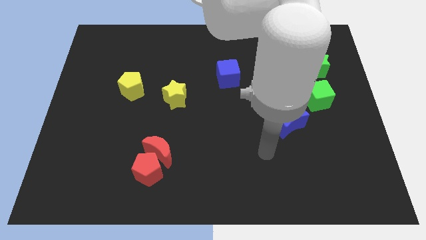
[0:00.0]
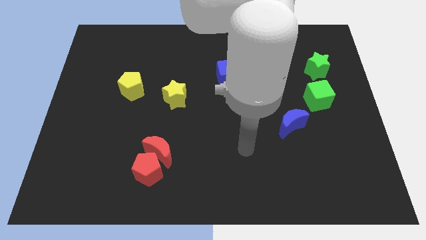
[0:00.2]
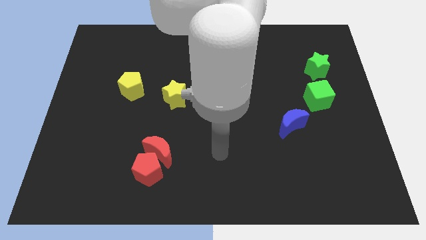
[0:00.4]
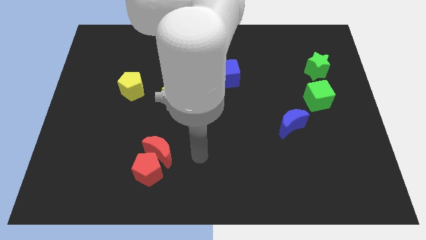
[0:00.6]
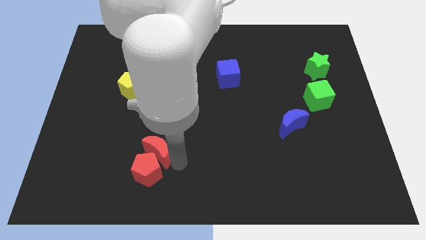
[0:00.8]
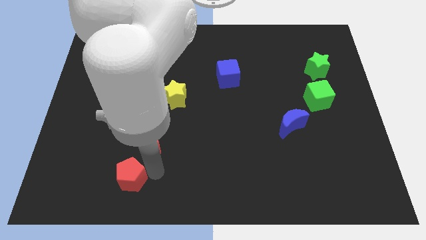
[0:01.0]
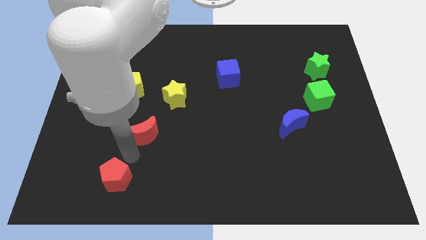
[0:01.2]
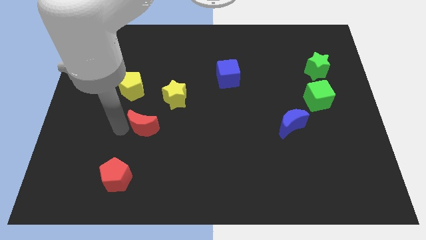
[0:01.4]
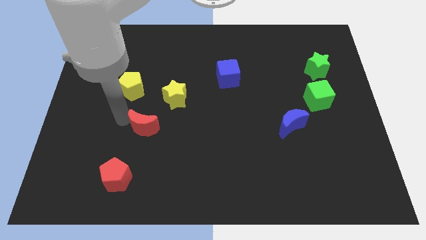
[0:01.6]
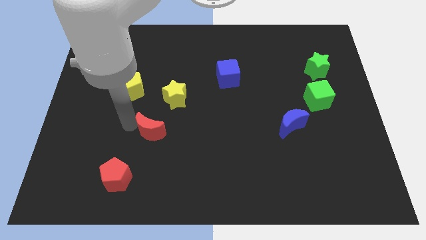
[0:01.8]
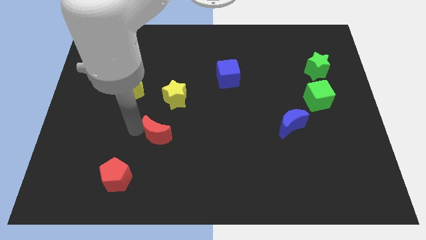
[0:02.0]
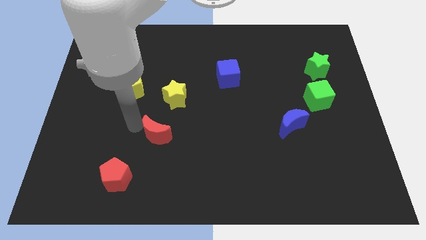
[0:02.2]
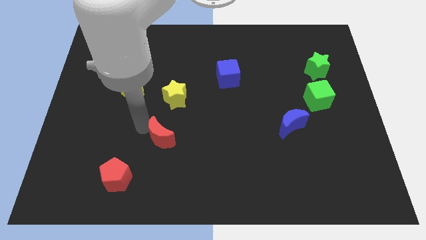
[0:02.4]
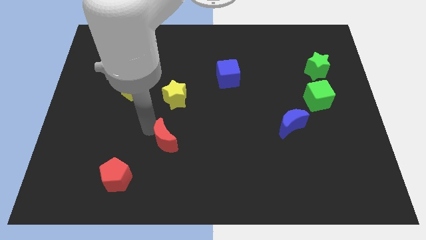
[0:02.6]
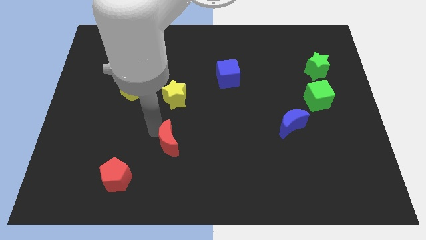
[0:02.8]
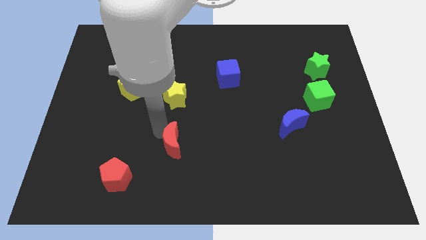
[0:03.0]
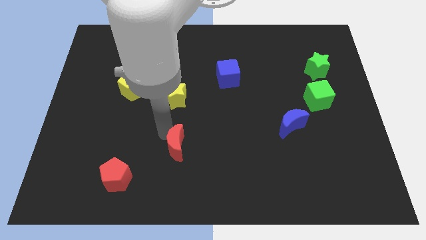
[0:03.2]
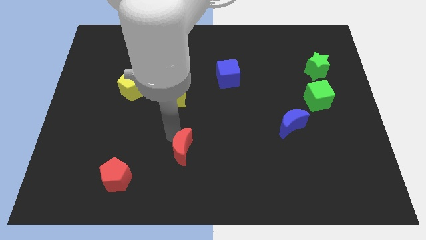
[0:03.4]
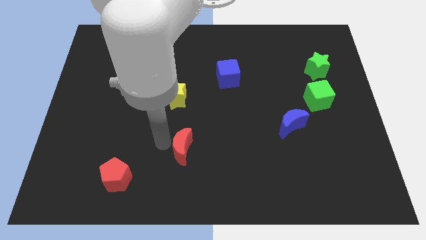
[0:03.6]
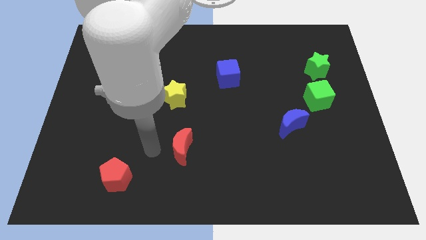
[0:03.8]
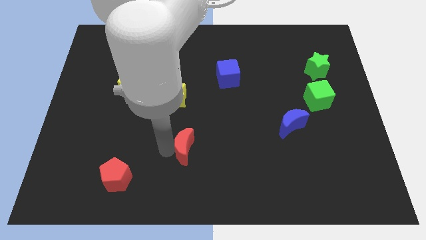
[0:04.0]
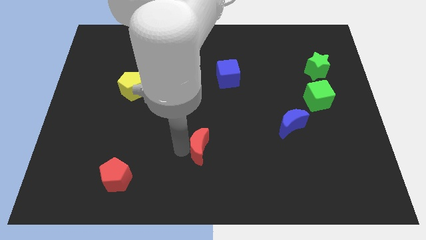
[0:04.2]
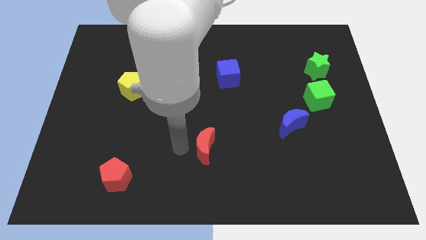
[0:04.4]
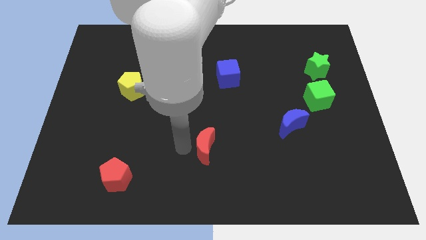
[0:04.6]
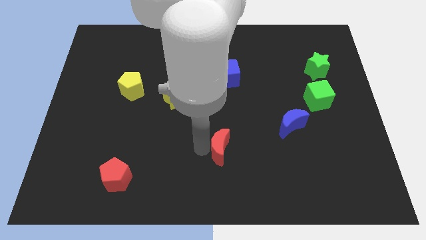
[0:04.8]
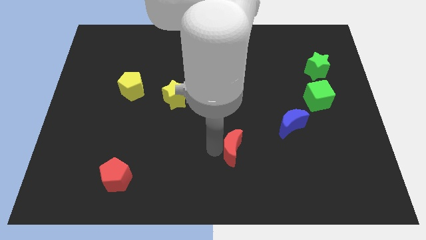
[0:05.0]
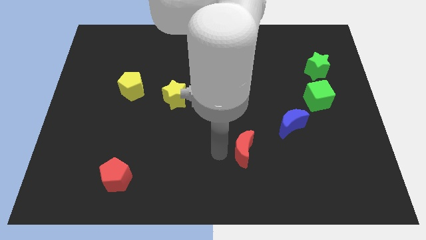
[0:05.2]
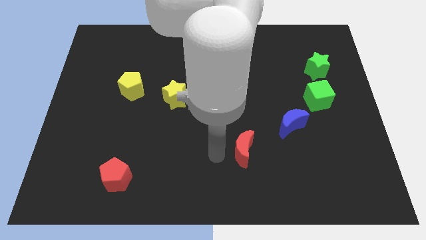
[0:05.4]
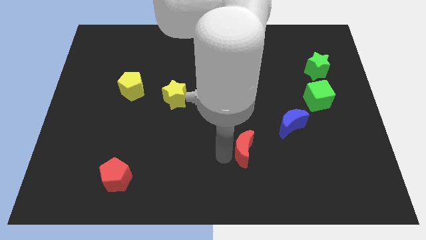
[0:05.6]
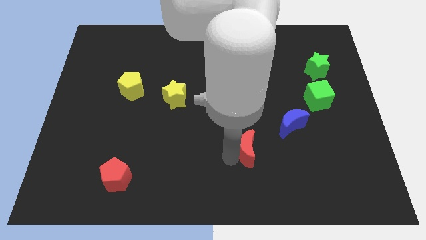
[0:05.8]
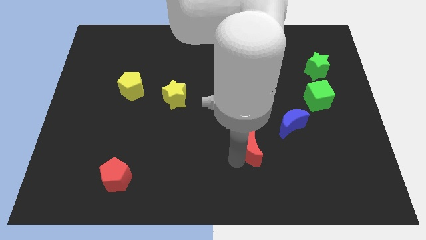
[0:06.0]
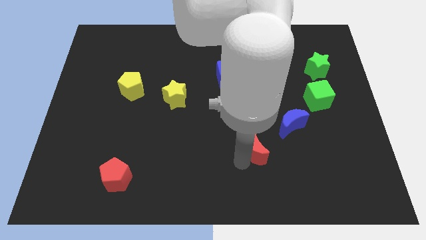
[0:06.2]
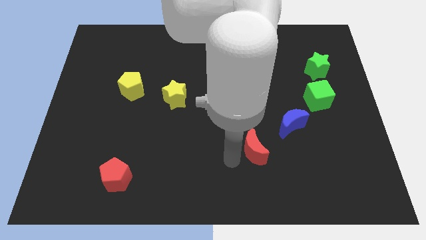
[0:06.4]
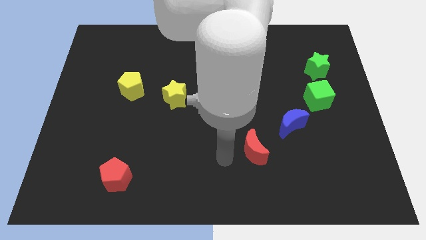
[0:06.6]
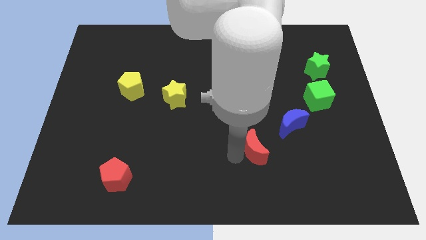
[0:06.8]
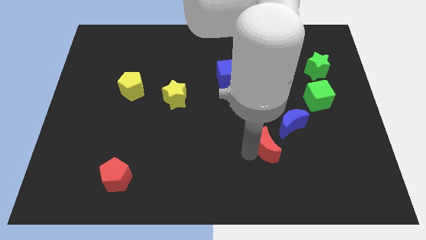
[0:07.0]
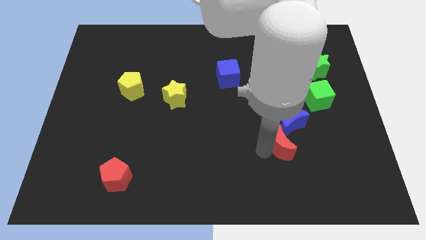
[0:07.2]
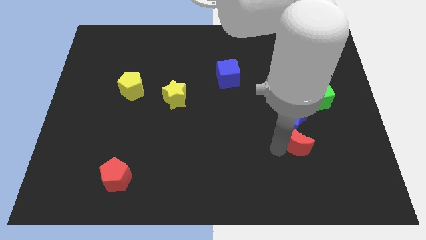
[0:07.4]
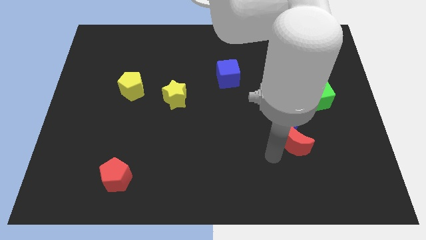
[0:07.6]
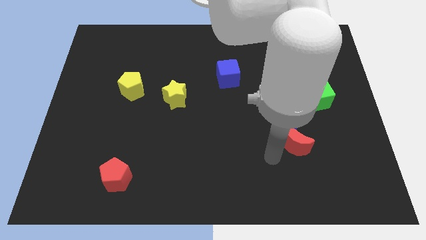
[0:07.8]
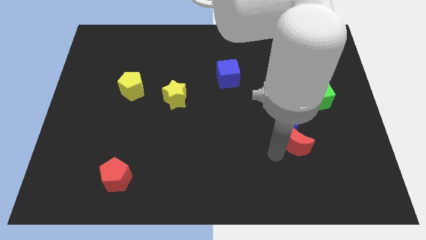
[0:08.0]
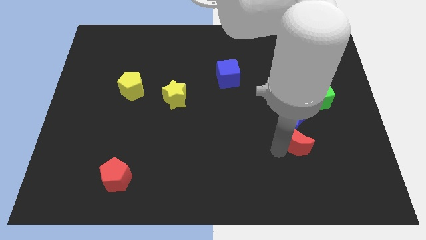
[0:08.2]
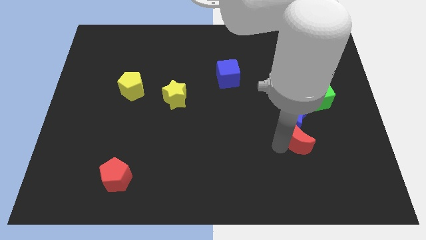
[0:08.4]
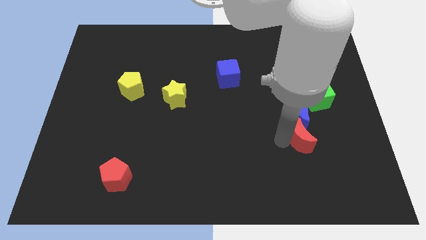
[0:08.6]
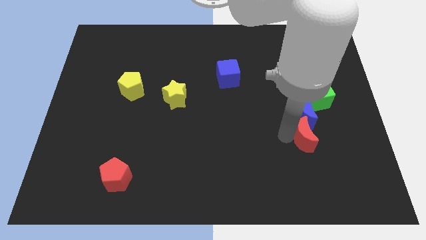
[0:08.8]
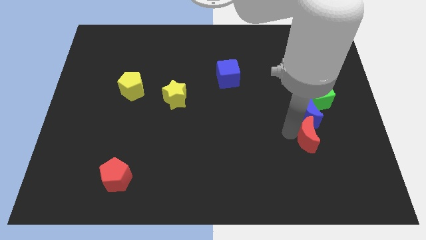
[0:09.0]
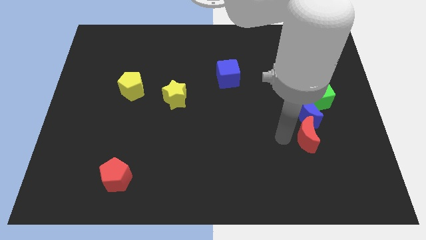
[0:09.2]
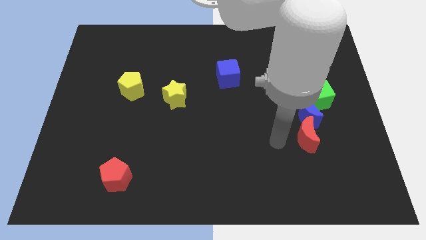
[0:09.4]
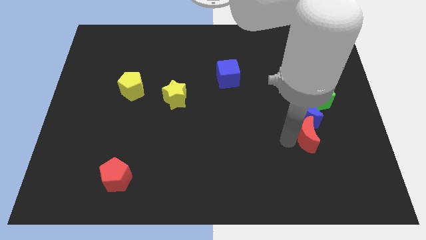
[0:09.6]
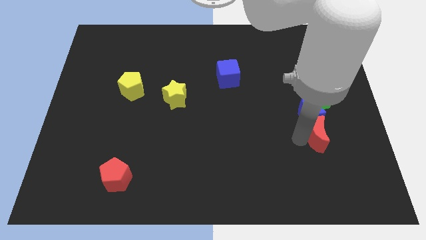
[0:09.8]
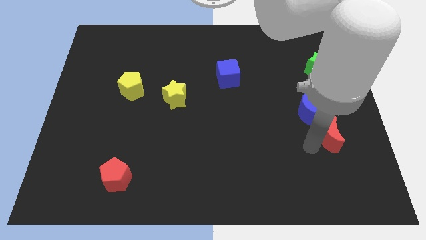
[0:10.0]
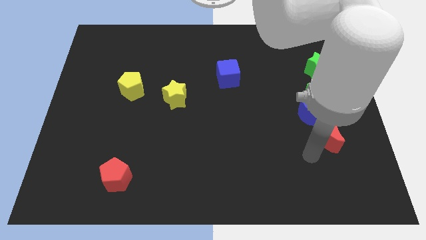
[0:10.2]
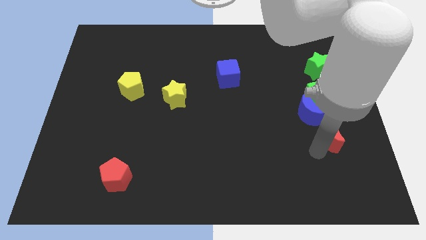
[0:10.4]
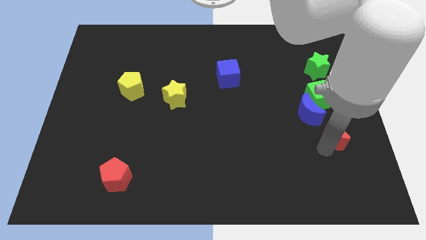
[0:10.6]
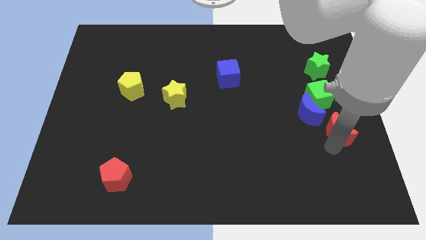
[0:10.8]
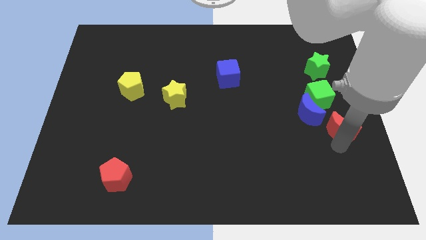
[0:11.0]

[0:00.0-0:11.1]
move the red moon to the right side of the blue moon
